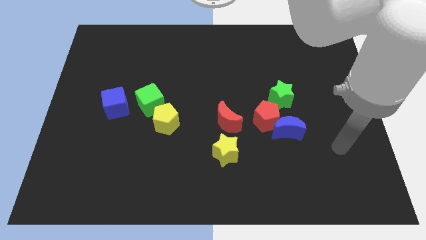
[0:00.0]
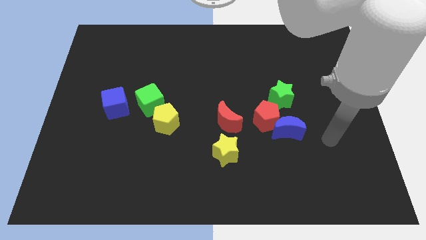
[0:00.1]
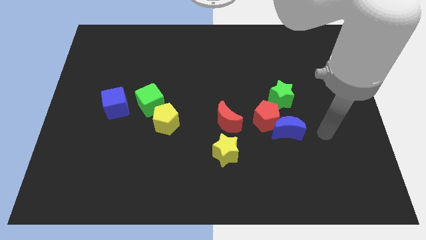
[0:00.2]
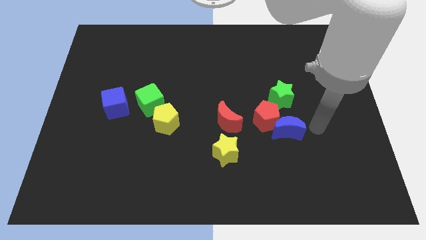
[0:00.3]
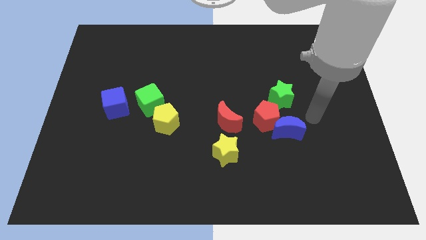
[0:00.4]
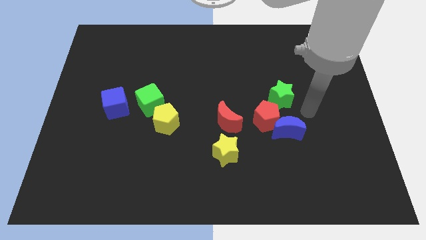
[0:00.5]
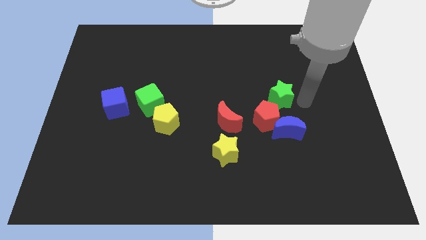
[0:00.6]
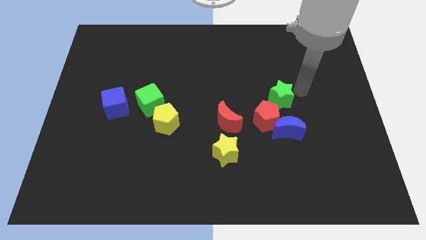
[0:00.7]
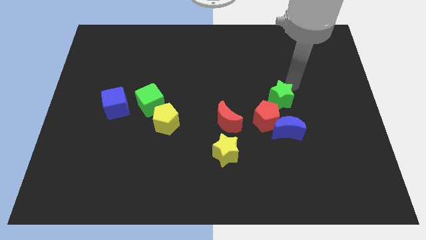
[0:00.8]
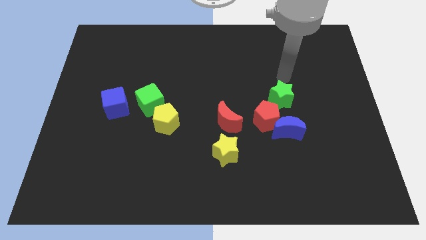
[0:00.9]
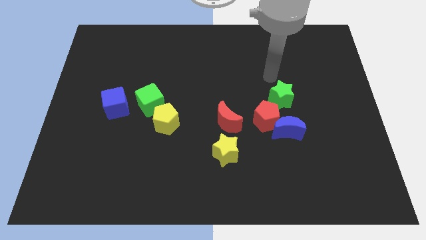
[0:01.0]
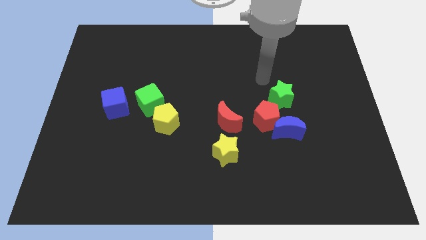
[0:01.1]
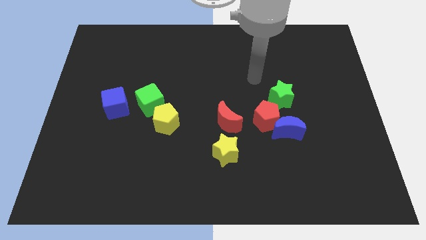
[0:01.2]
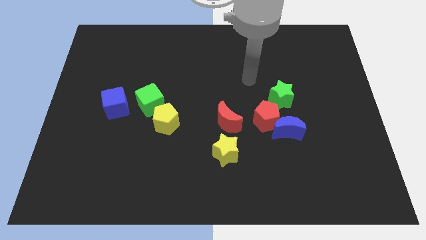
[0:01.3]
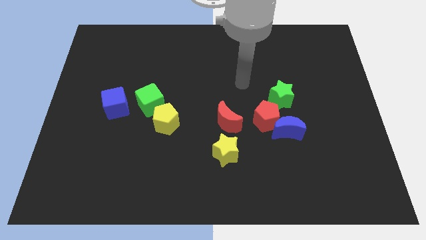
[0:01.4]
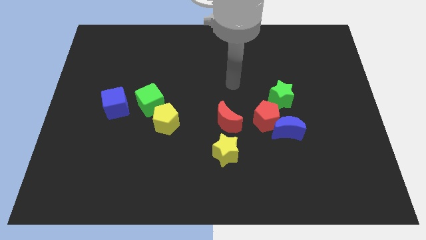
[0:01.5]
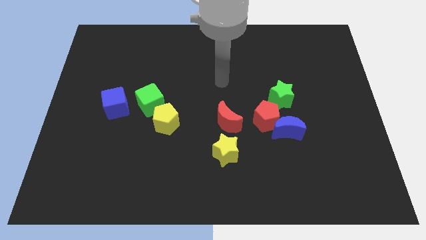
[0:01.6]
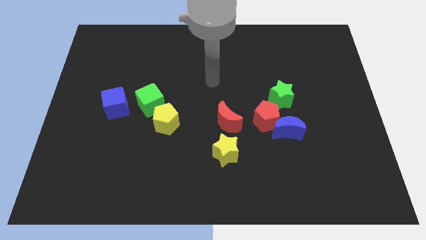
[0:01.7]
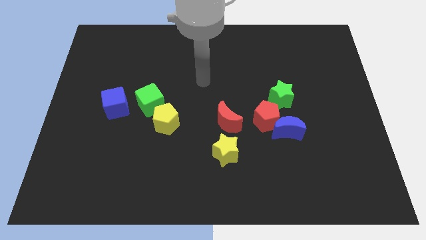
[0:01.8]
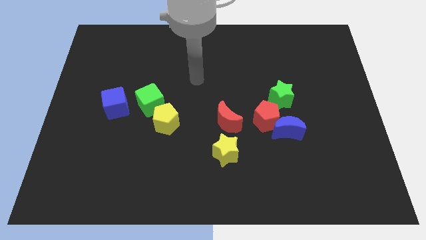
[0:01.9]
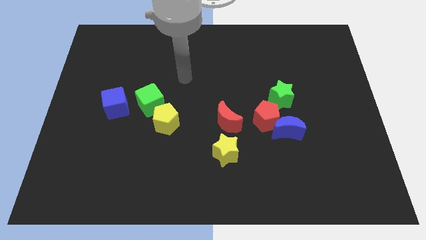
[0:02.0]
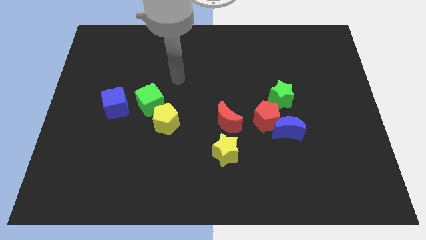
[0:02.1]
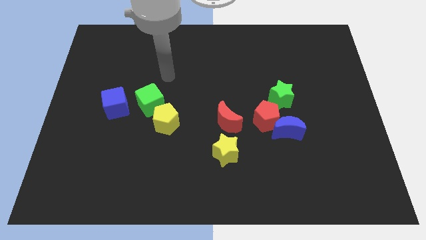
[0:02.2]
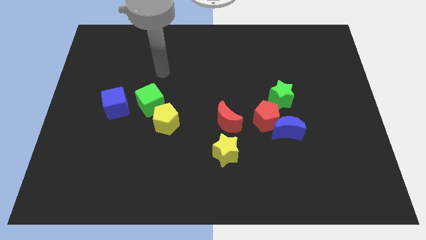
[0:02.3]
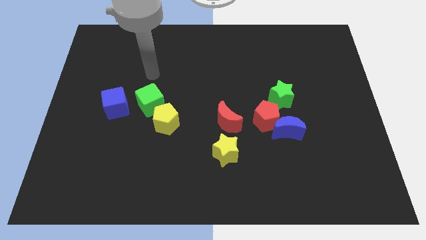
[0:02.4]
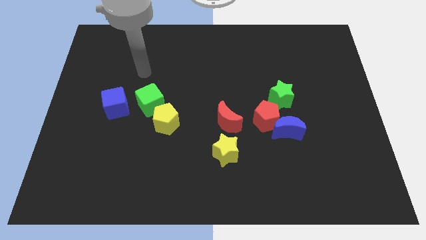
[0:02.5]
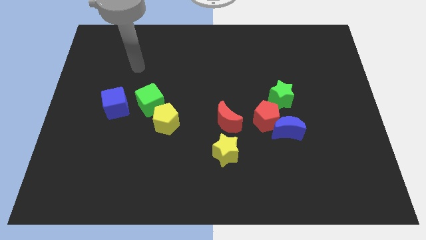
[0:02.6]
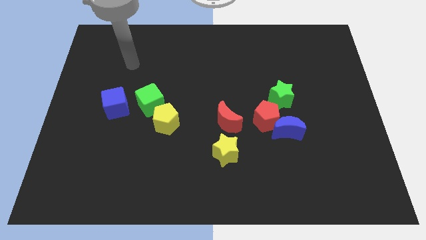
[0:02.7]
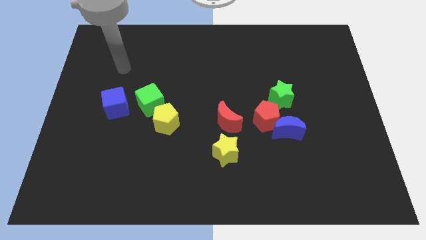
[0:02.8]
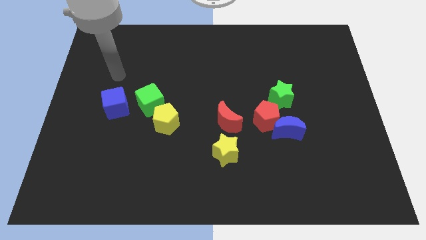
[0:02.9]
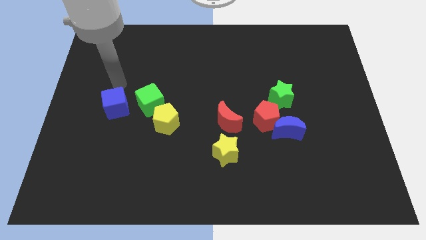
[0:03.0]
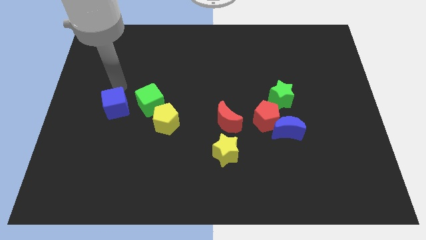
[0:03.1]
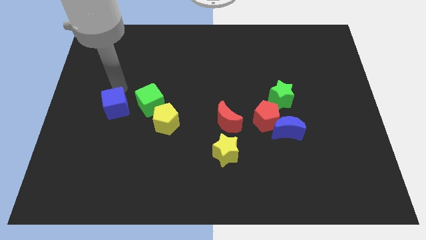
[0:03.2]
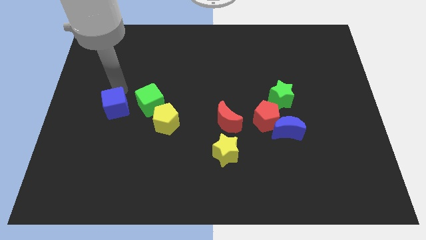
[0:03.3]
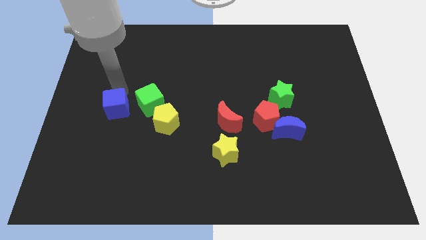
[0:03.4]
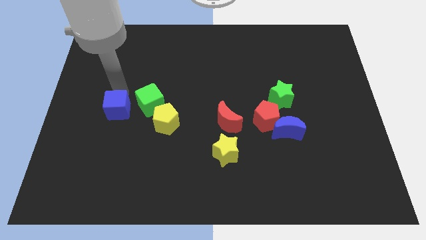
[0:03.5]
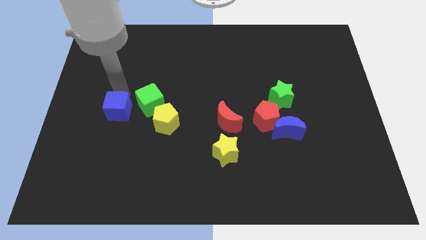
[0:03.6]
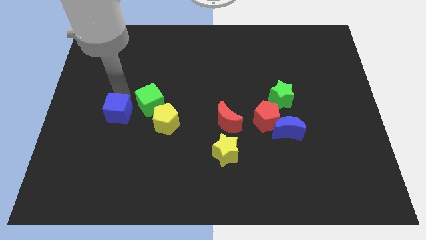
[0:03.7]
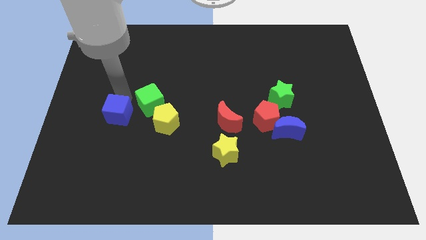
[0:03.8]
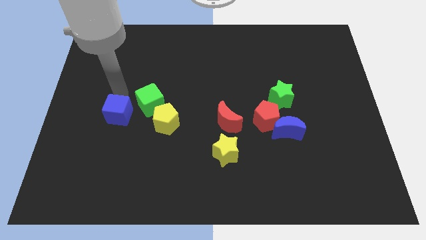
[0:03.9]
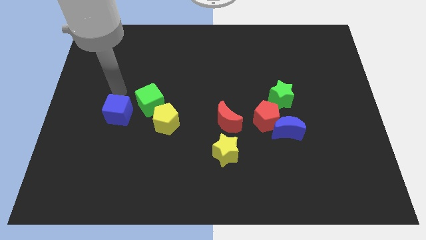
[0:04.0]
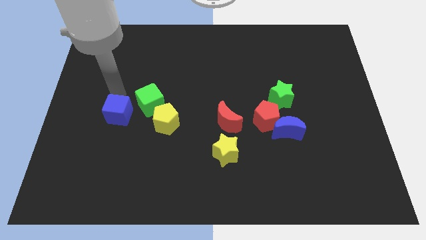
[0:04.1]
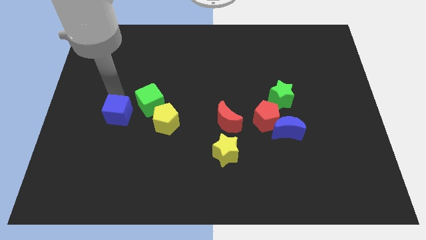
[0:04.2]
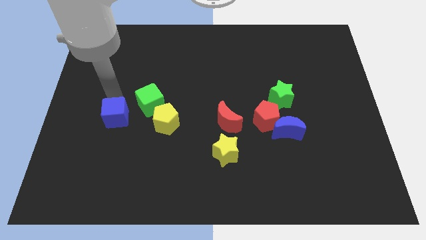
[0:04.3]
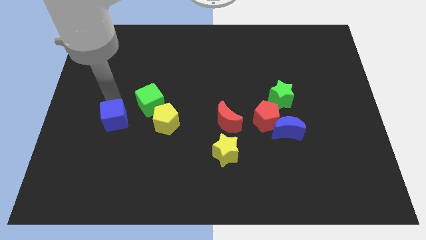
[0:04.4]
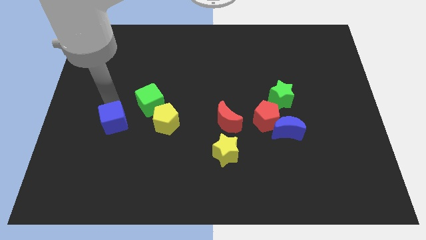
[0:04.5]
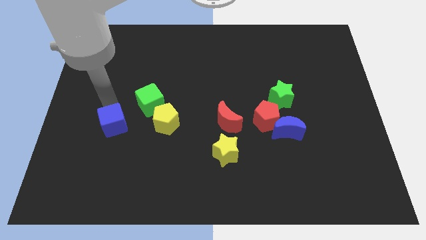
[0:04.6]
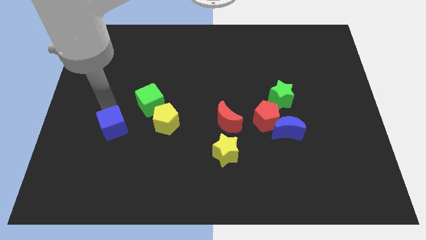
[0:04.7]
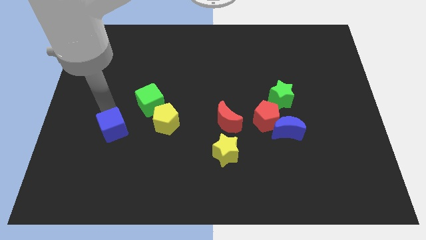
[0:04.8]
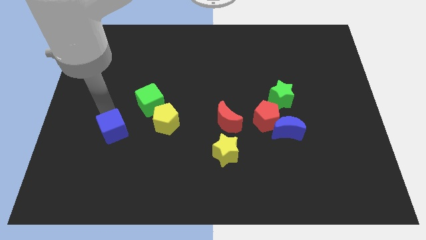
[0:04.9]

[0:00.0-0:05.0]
slightly push the blue cube down

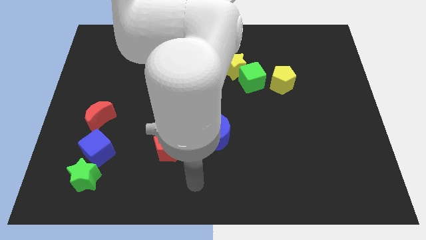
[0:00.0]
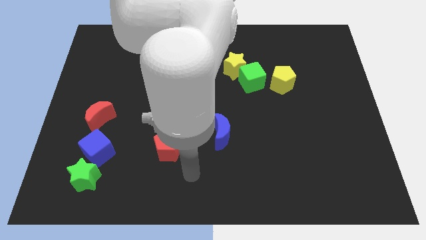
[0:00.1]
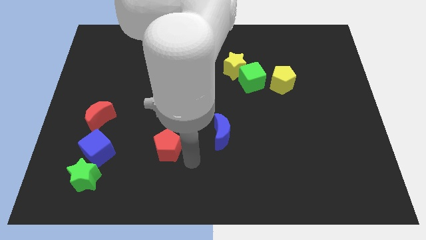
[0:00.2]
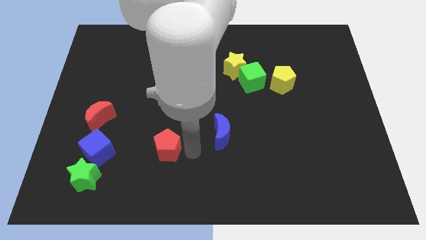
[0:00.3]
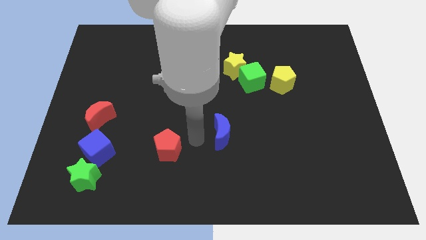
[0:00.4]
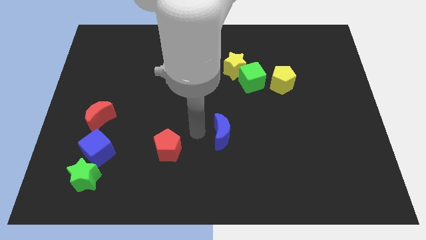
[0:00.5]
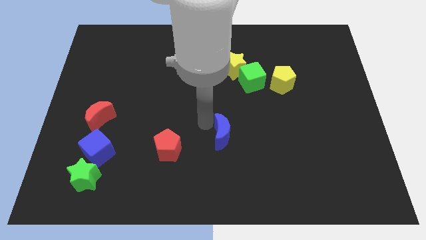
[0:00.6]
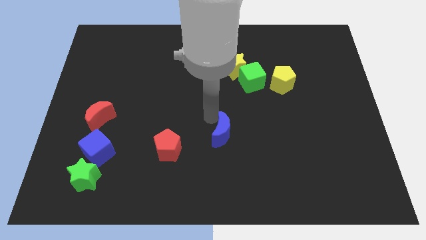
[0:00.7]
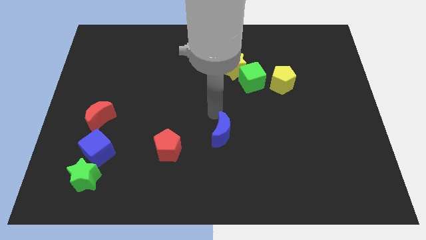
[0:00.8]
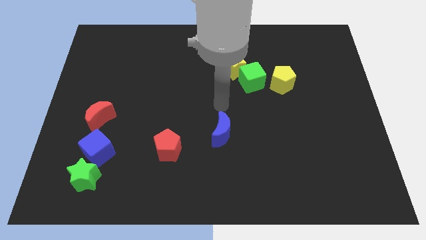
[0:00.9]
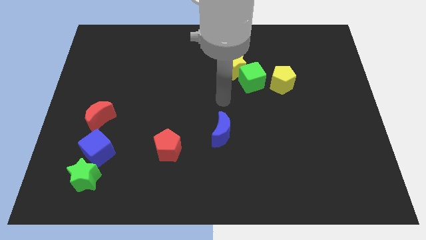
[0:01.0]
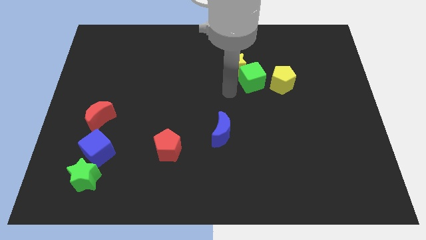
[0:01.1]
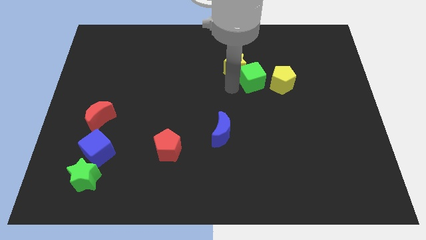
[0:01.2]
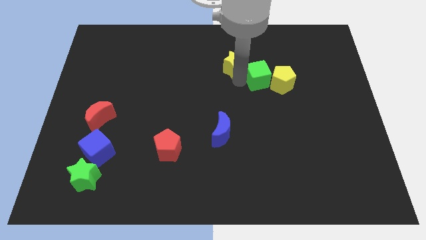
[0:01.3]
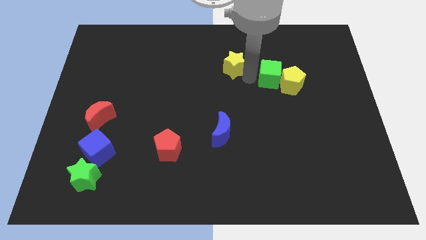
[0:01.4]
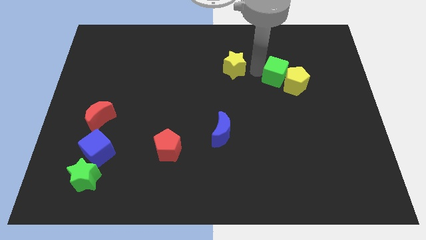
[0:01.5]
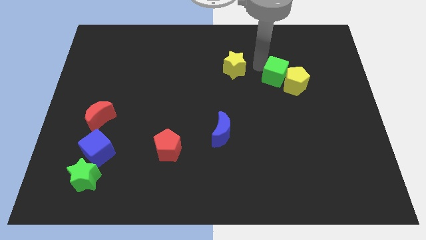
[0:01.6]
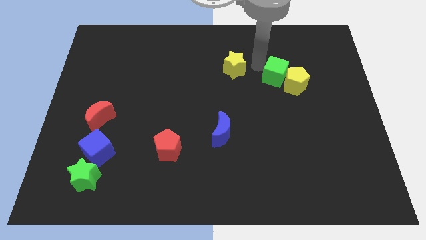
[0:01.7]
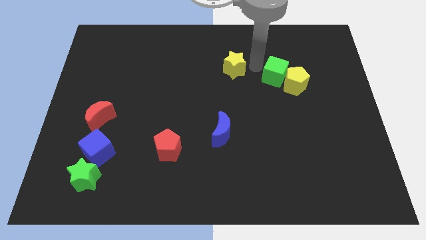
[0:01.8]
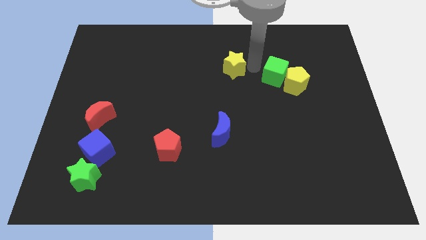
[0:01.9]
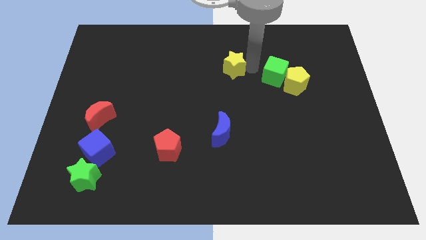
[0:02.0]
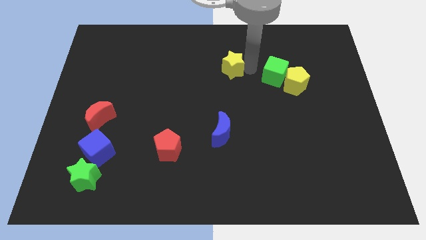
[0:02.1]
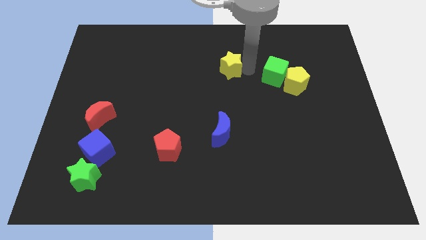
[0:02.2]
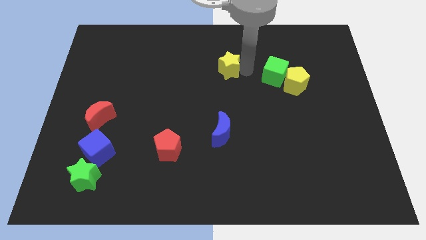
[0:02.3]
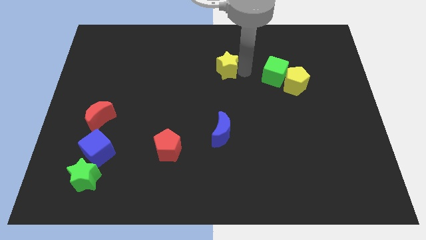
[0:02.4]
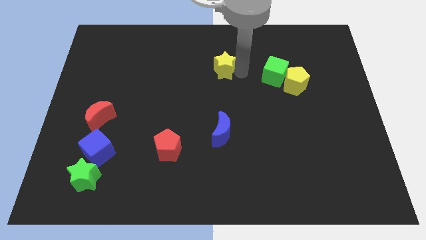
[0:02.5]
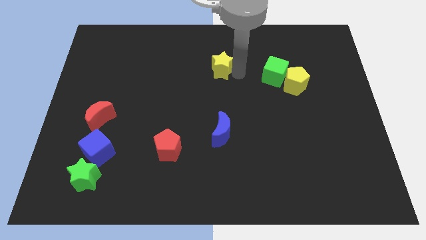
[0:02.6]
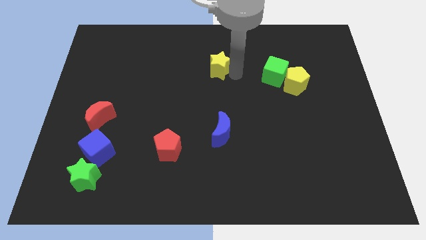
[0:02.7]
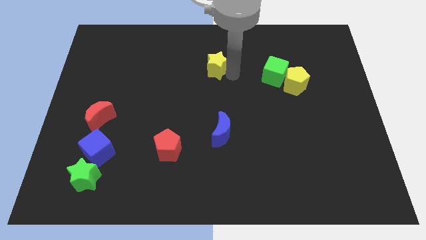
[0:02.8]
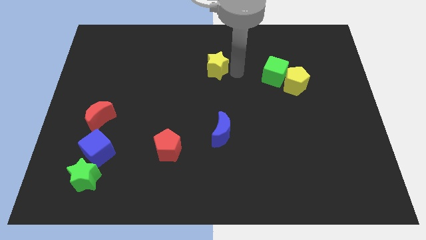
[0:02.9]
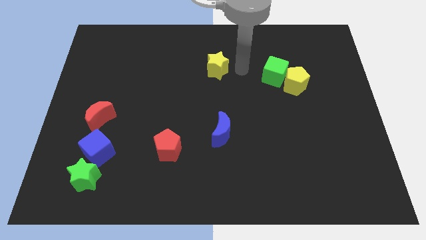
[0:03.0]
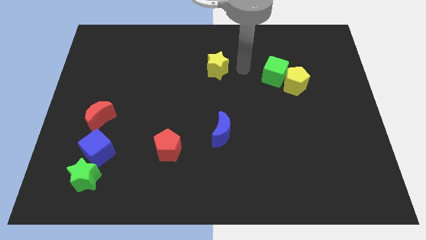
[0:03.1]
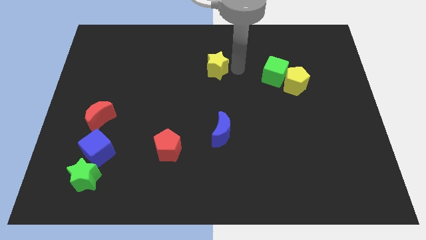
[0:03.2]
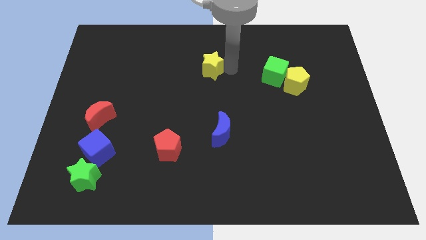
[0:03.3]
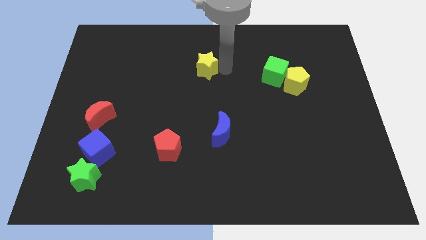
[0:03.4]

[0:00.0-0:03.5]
push the yellow star left somewhat
